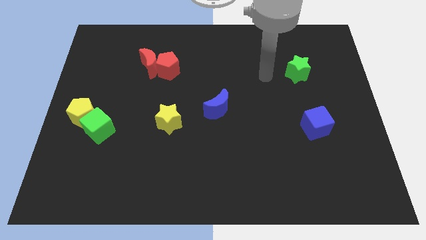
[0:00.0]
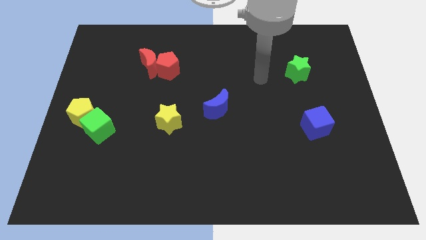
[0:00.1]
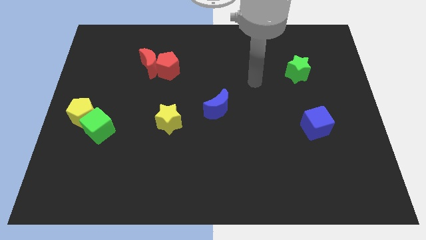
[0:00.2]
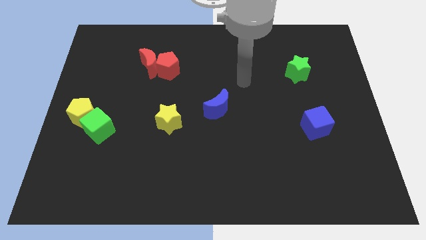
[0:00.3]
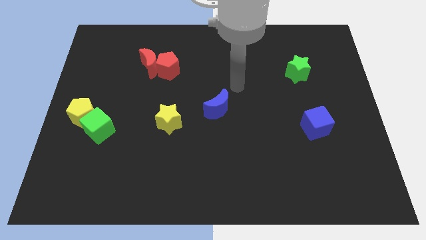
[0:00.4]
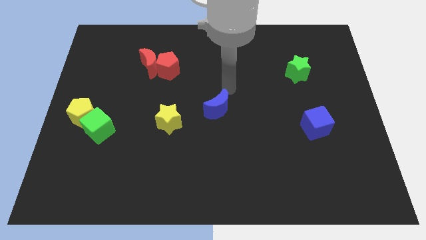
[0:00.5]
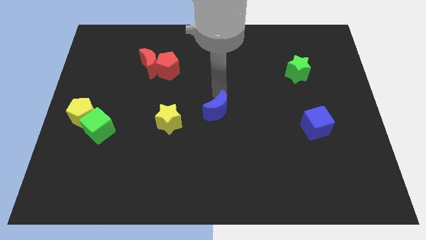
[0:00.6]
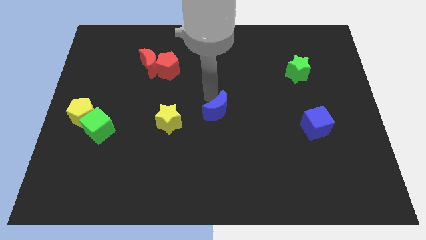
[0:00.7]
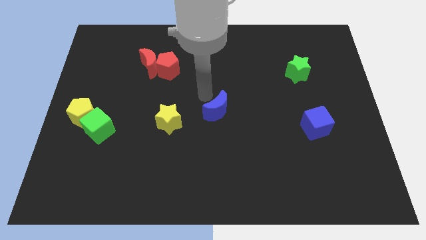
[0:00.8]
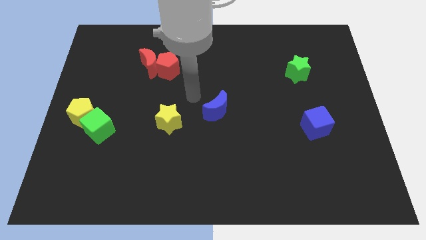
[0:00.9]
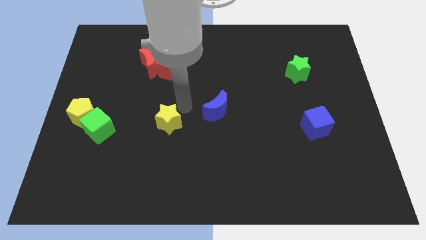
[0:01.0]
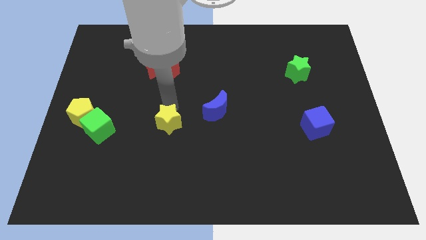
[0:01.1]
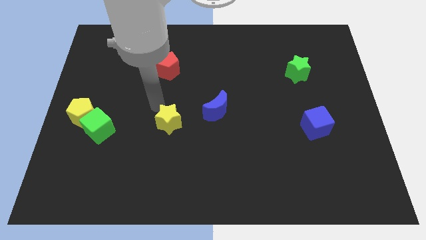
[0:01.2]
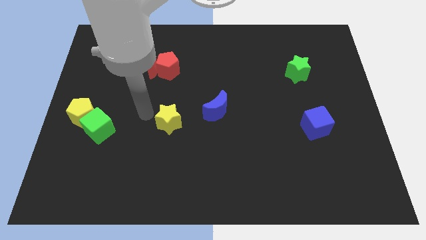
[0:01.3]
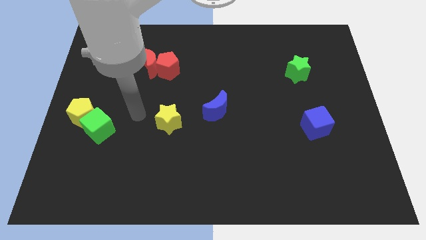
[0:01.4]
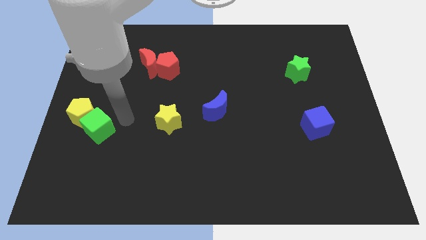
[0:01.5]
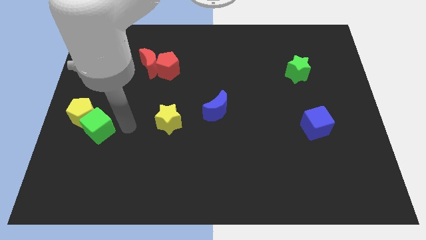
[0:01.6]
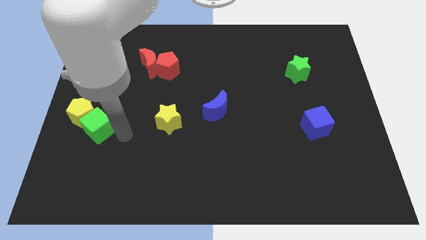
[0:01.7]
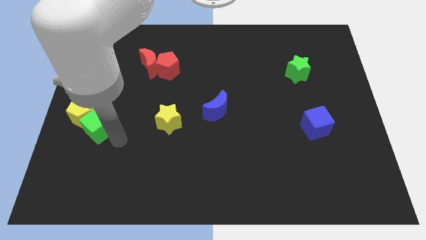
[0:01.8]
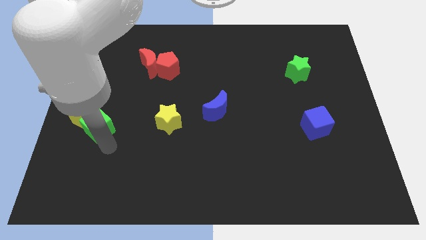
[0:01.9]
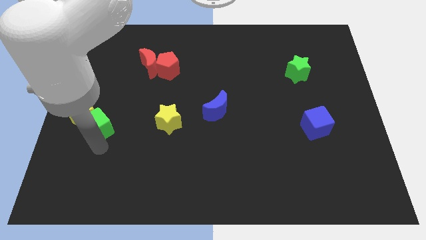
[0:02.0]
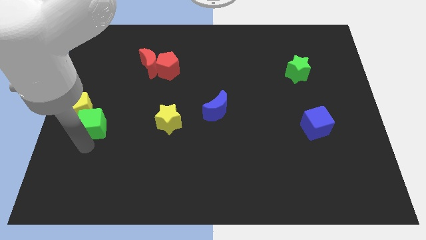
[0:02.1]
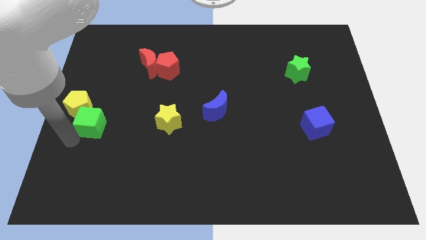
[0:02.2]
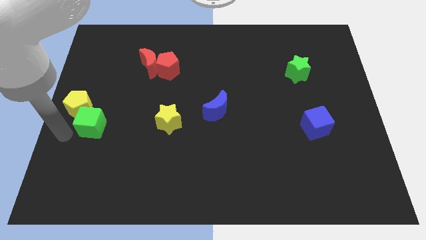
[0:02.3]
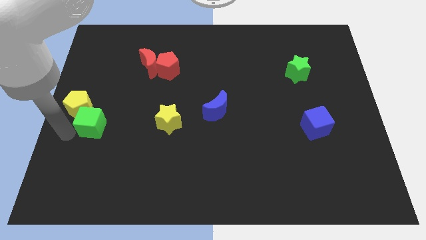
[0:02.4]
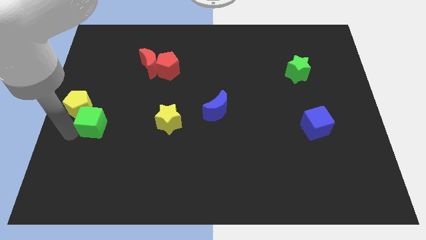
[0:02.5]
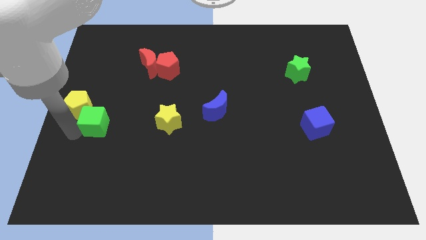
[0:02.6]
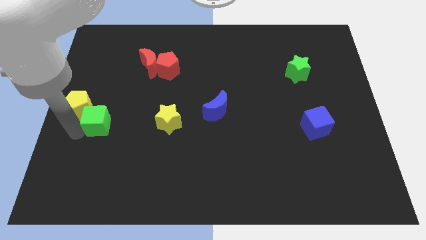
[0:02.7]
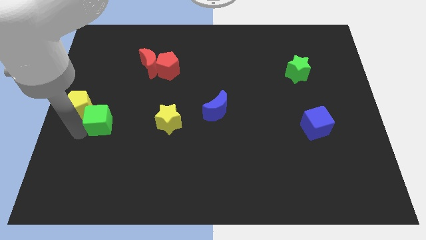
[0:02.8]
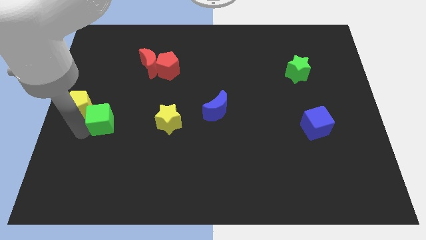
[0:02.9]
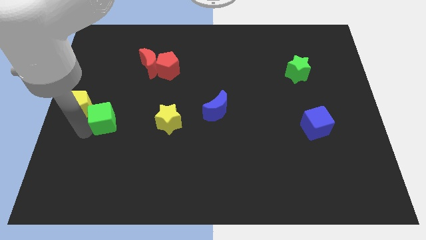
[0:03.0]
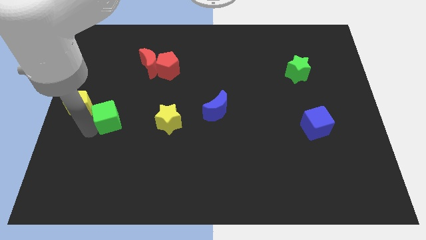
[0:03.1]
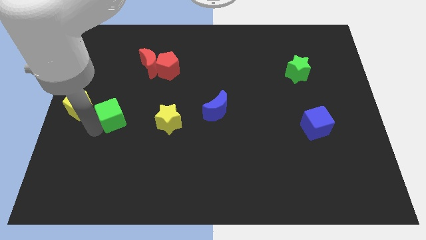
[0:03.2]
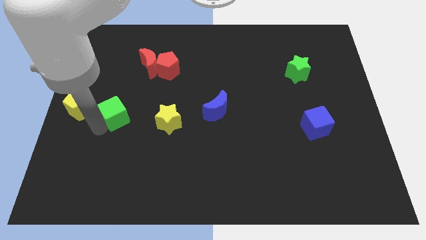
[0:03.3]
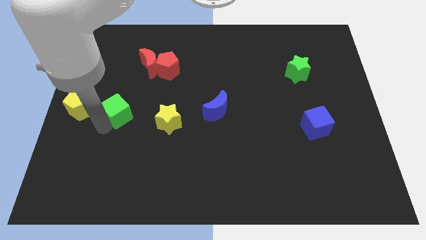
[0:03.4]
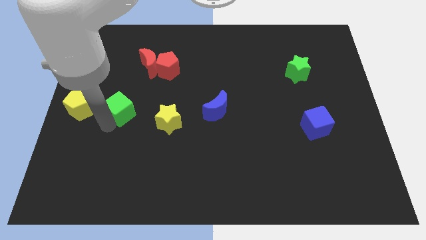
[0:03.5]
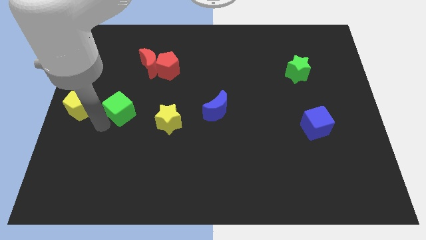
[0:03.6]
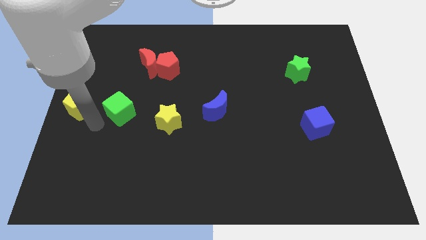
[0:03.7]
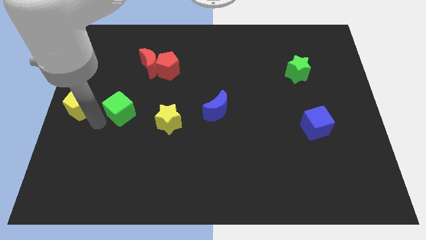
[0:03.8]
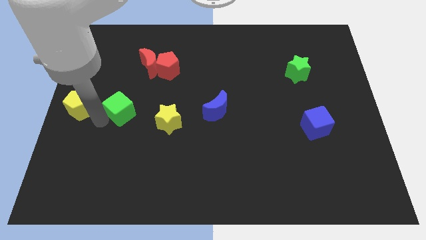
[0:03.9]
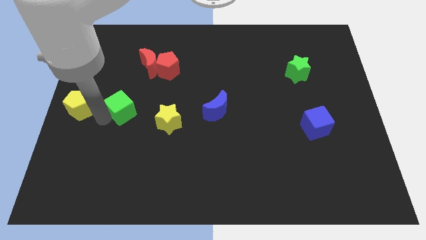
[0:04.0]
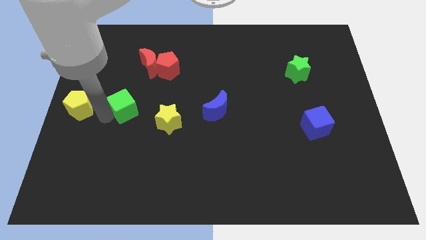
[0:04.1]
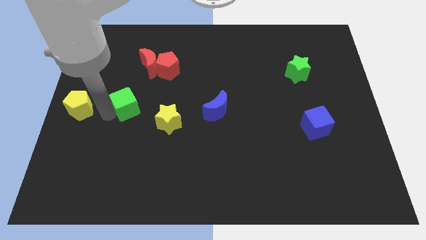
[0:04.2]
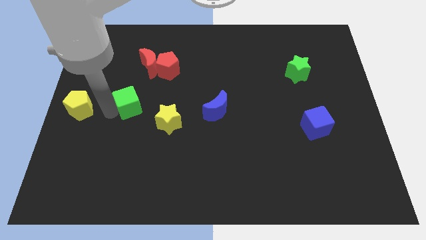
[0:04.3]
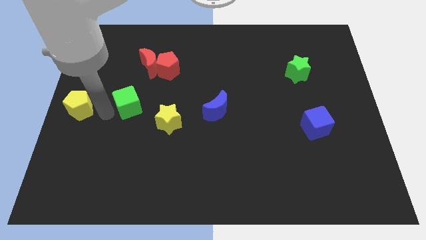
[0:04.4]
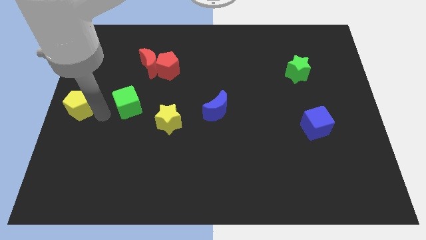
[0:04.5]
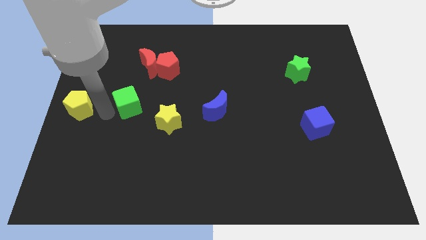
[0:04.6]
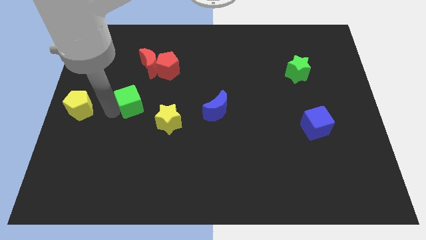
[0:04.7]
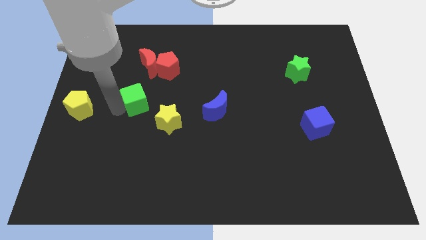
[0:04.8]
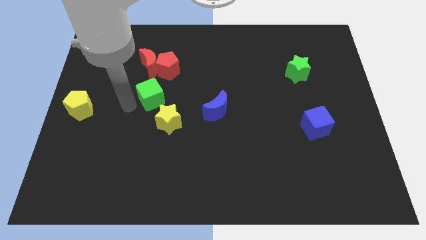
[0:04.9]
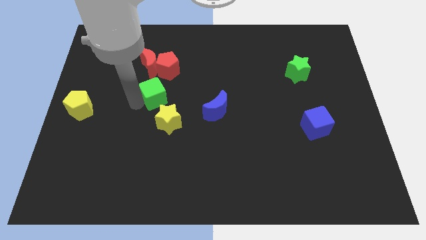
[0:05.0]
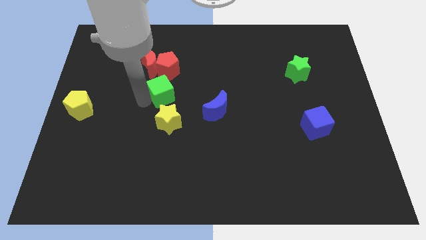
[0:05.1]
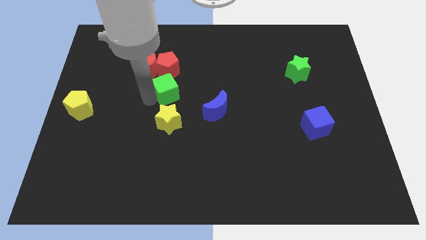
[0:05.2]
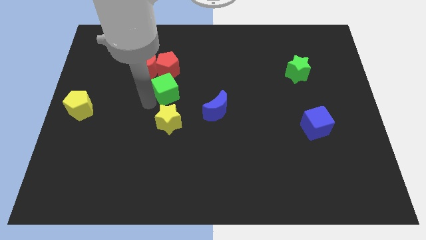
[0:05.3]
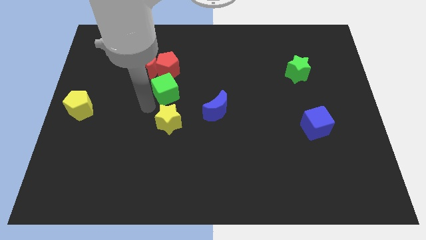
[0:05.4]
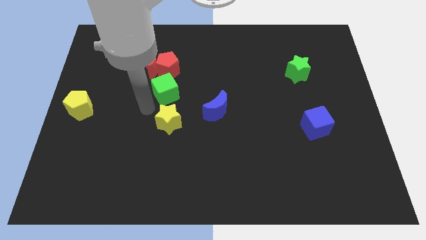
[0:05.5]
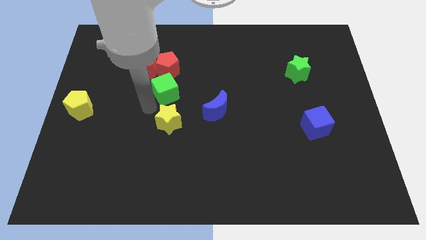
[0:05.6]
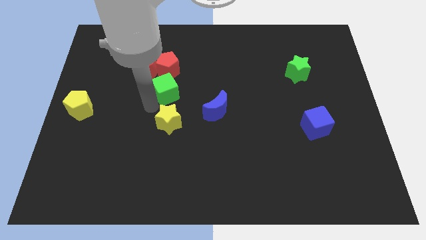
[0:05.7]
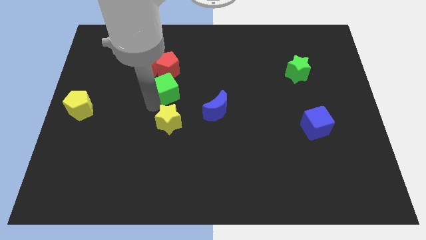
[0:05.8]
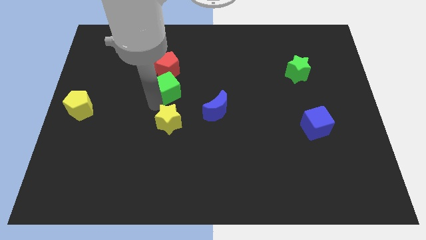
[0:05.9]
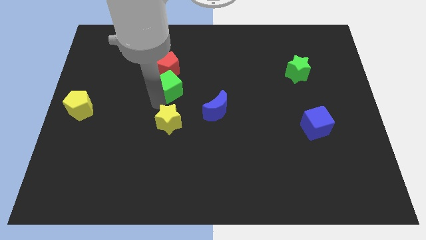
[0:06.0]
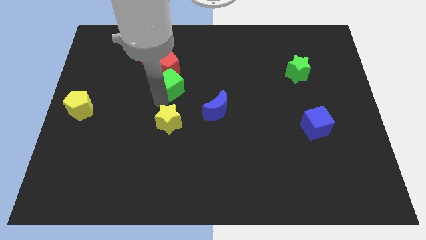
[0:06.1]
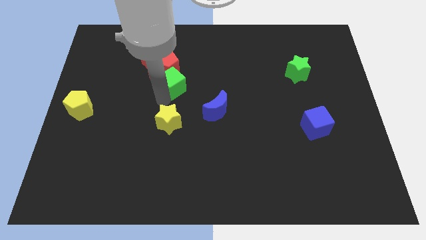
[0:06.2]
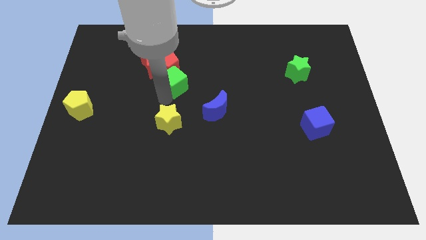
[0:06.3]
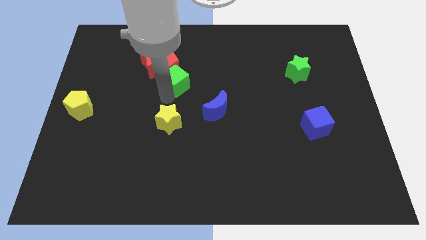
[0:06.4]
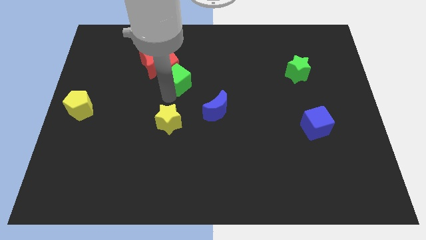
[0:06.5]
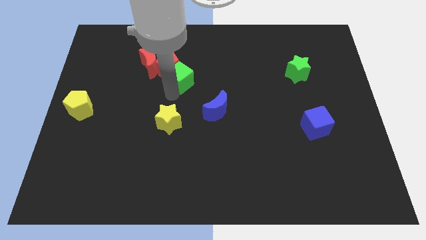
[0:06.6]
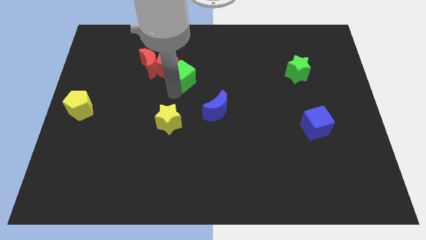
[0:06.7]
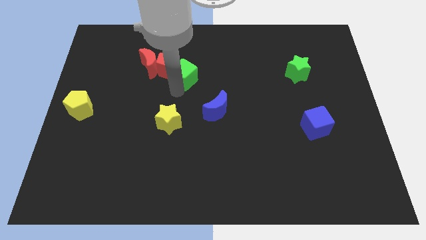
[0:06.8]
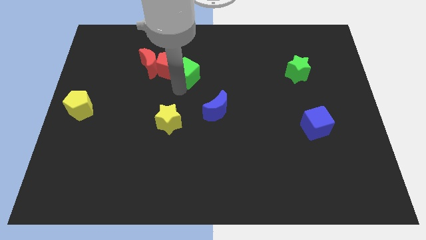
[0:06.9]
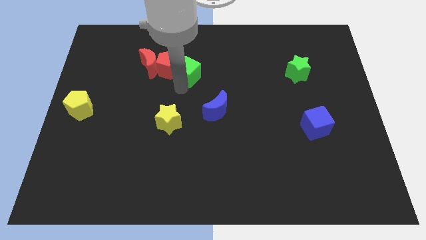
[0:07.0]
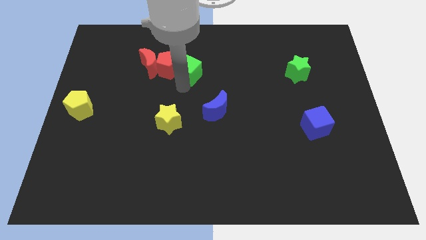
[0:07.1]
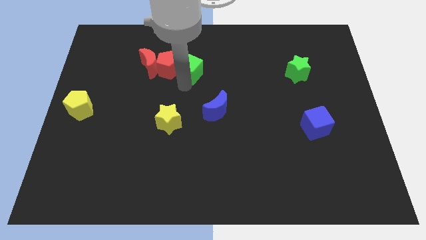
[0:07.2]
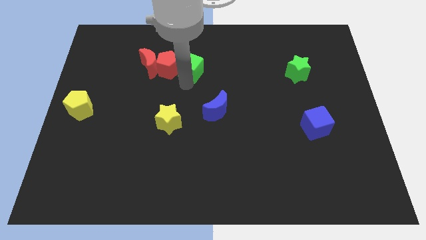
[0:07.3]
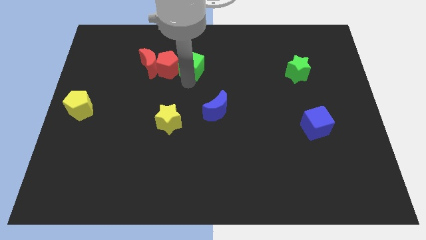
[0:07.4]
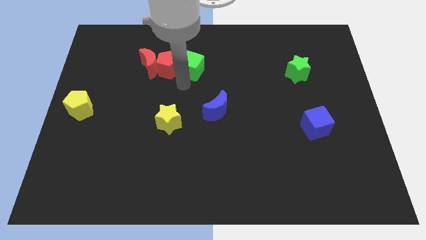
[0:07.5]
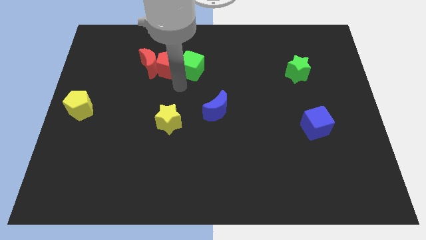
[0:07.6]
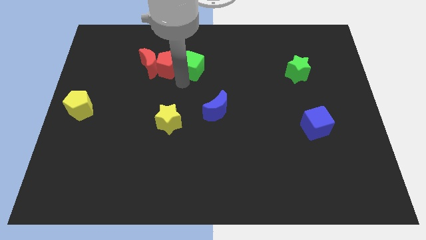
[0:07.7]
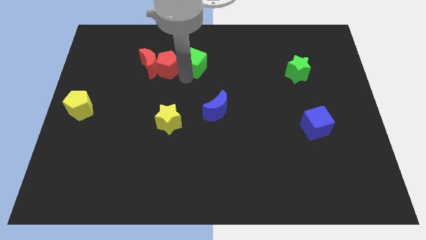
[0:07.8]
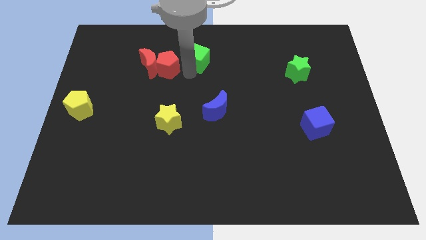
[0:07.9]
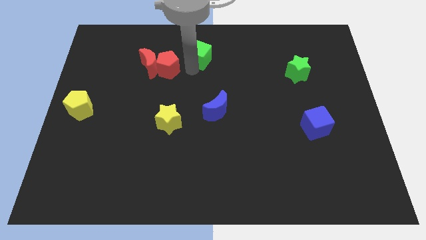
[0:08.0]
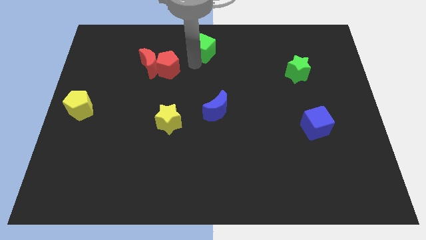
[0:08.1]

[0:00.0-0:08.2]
push the green cube to the top side
